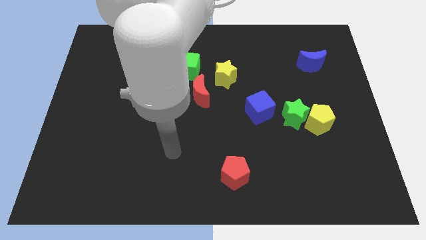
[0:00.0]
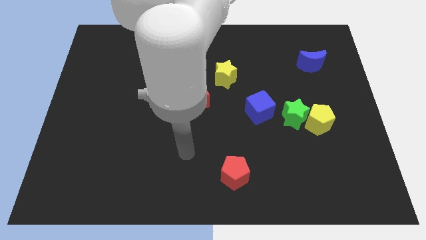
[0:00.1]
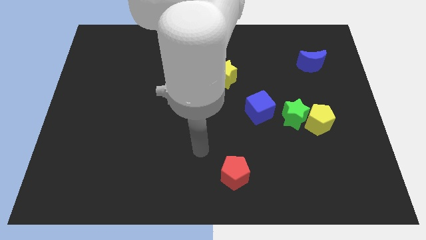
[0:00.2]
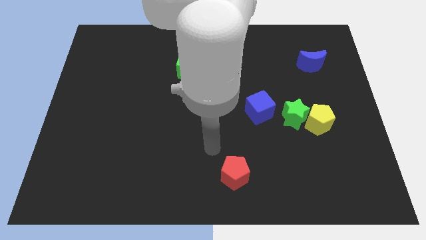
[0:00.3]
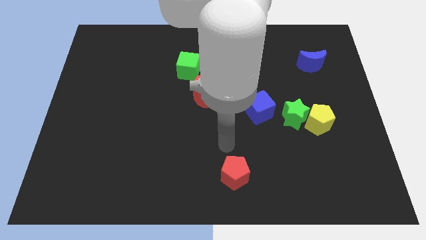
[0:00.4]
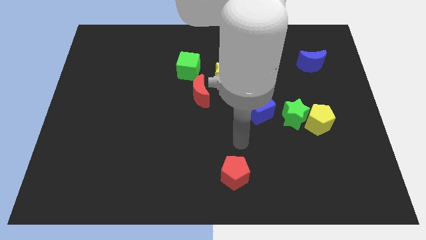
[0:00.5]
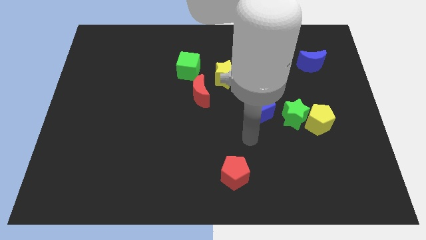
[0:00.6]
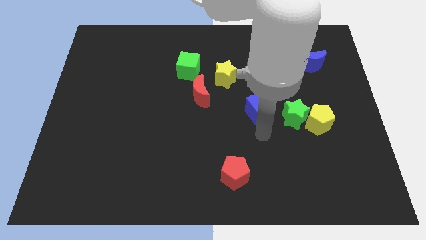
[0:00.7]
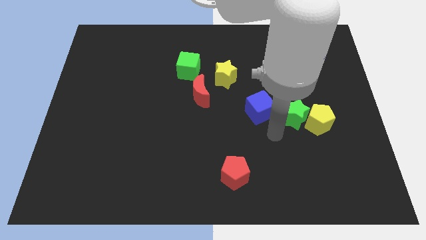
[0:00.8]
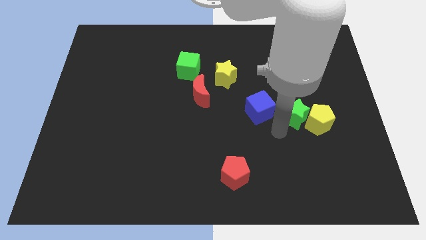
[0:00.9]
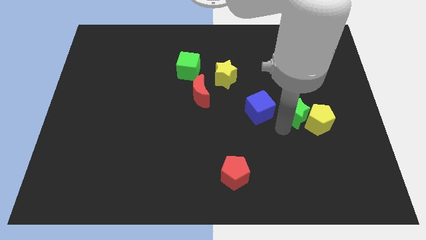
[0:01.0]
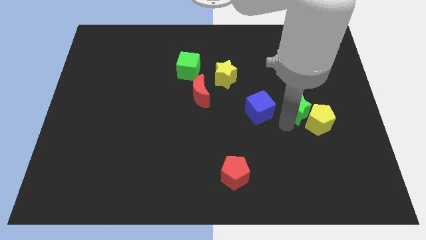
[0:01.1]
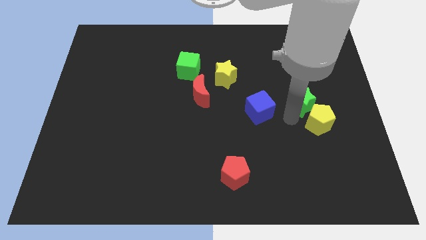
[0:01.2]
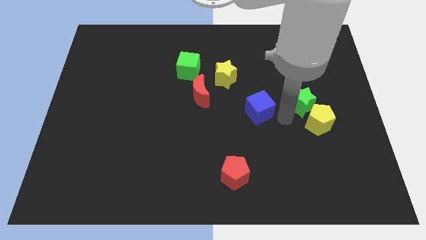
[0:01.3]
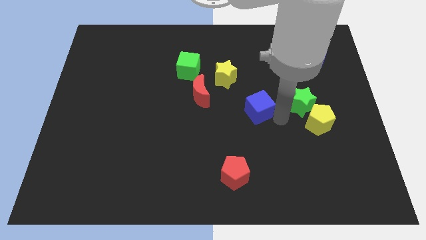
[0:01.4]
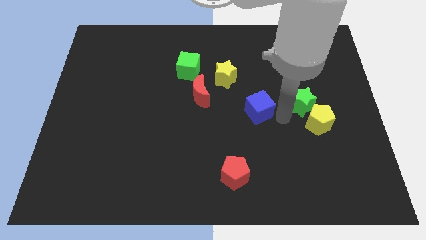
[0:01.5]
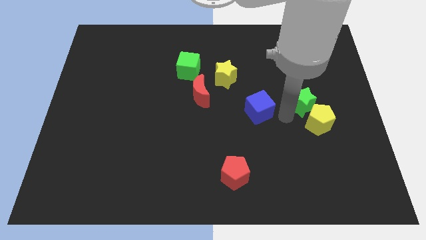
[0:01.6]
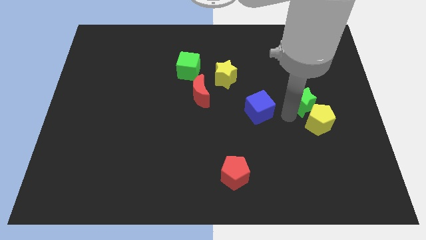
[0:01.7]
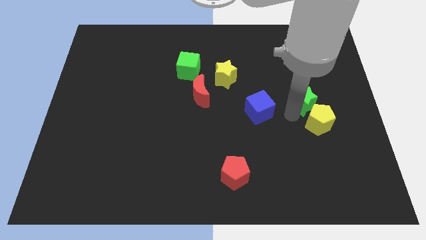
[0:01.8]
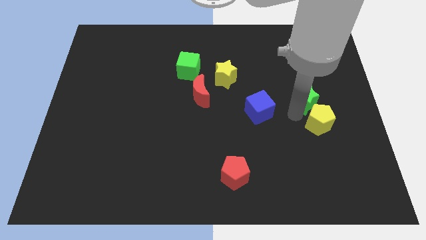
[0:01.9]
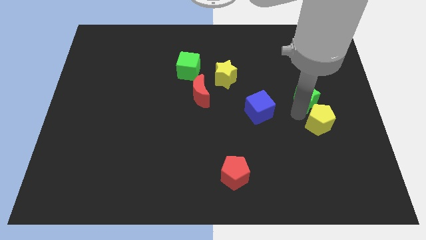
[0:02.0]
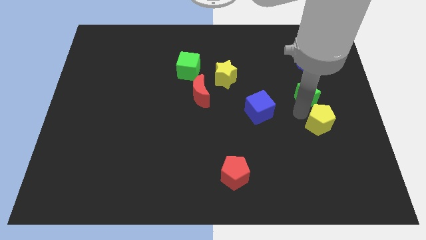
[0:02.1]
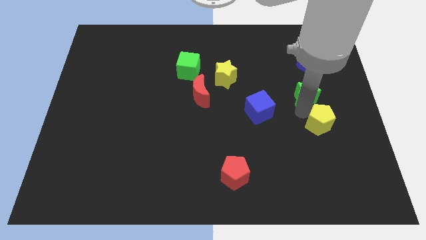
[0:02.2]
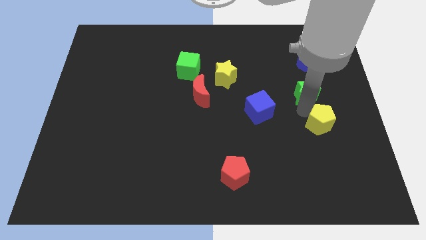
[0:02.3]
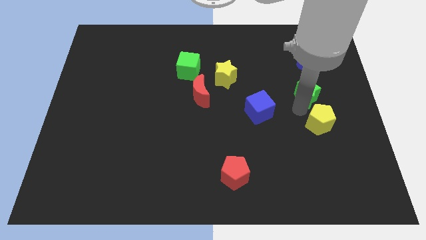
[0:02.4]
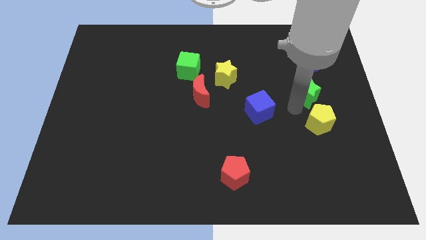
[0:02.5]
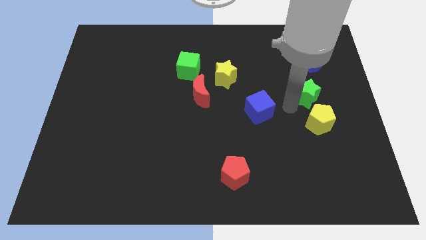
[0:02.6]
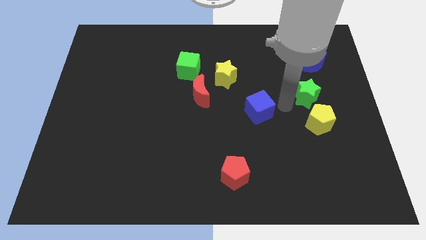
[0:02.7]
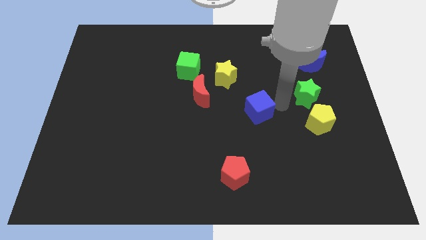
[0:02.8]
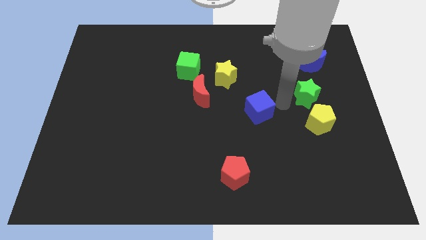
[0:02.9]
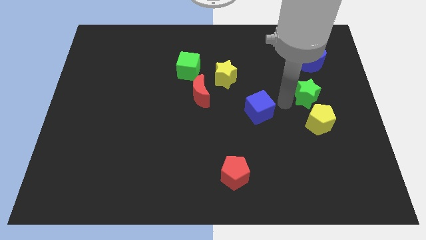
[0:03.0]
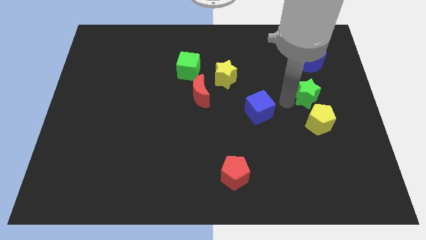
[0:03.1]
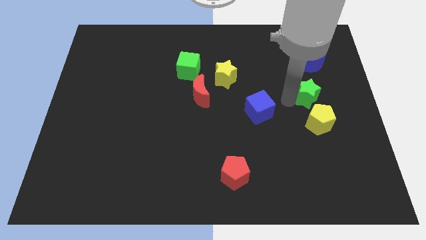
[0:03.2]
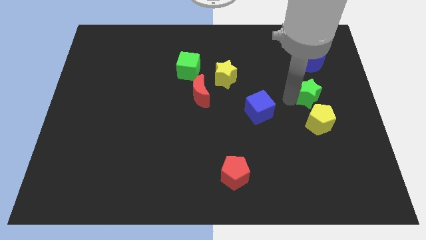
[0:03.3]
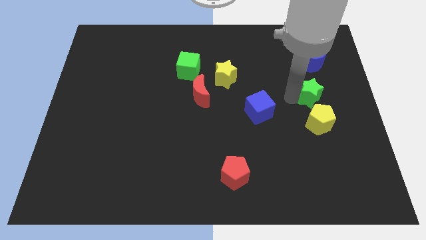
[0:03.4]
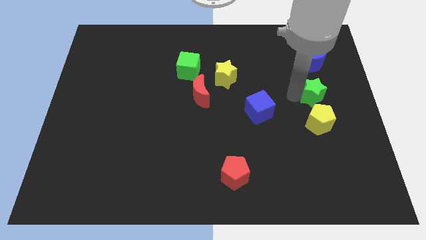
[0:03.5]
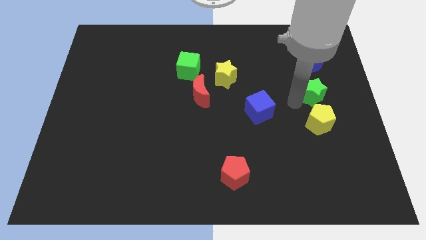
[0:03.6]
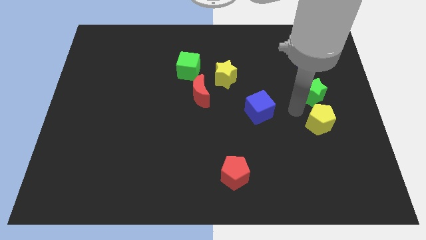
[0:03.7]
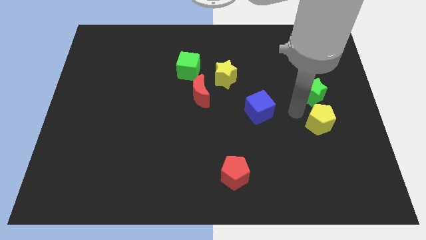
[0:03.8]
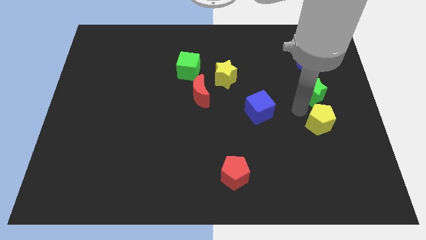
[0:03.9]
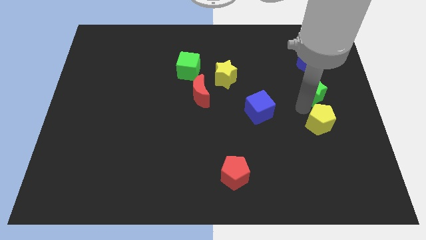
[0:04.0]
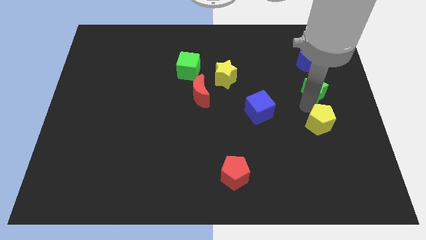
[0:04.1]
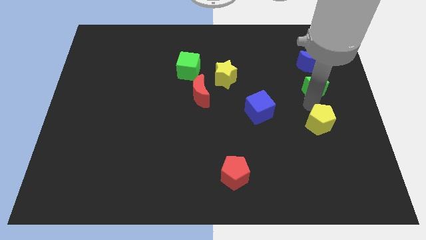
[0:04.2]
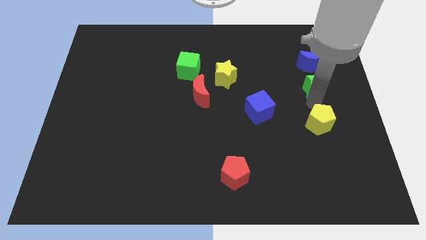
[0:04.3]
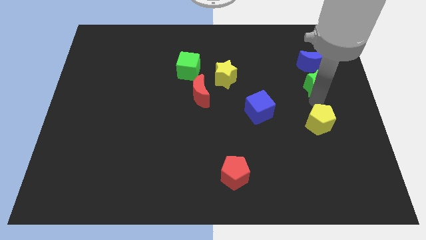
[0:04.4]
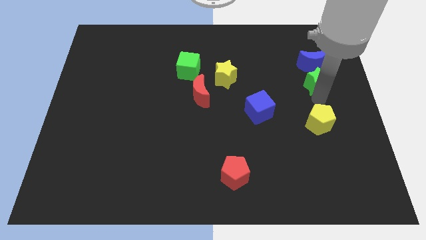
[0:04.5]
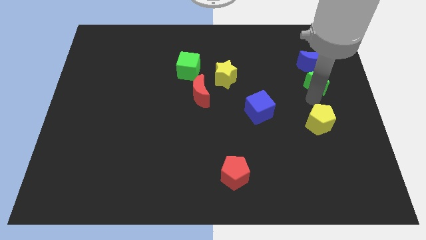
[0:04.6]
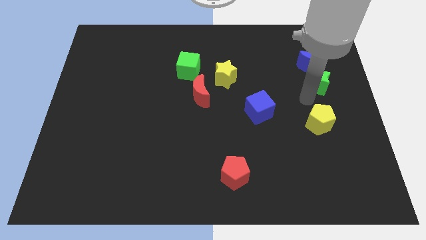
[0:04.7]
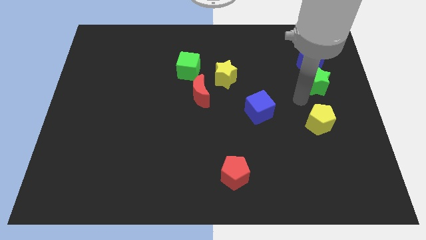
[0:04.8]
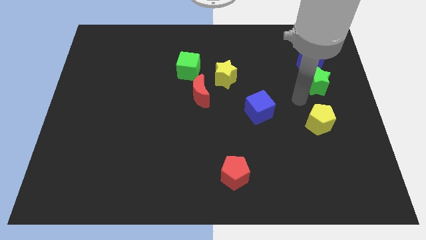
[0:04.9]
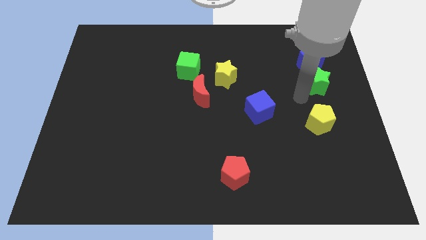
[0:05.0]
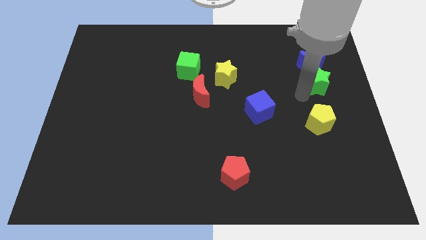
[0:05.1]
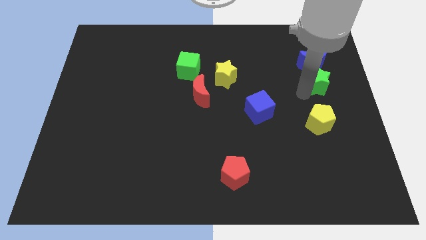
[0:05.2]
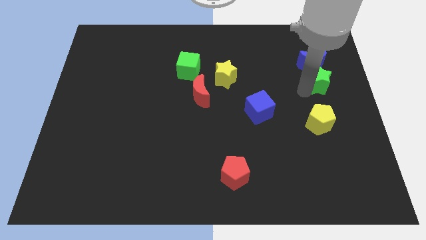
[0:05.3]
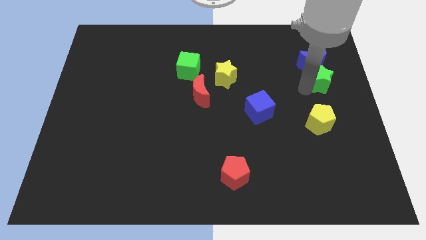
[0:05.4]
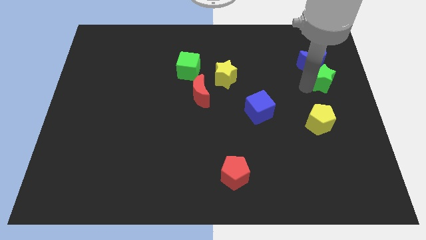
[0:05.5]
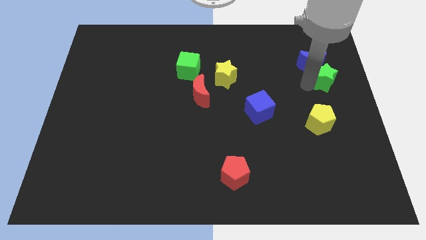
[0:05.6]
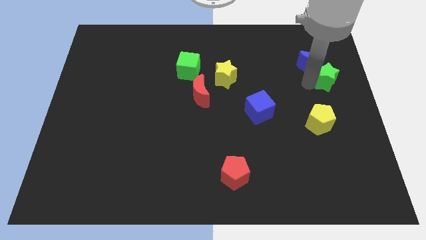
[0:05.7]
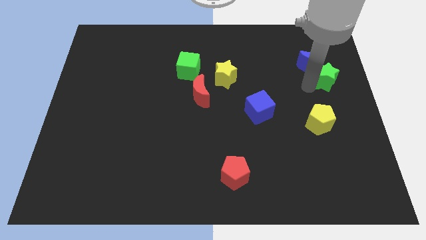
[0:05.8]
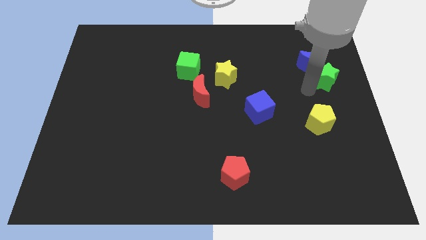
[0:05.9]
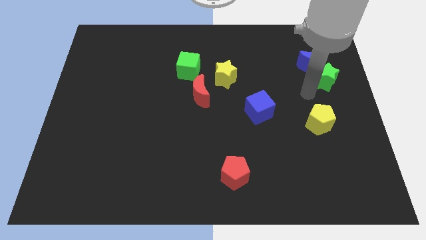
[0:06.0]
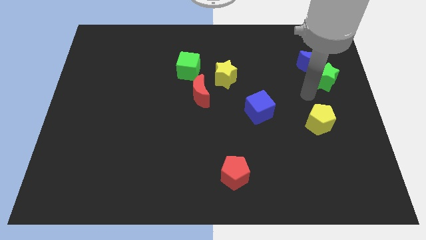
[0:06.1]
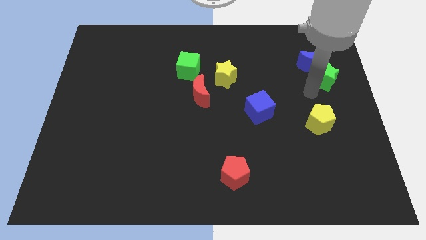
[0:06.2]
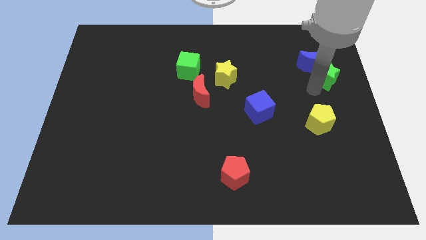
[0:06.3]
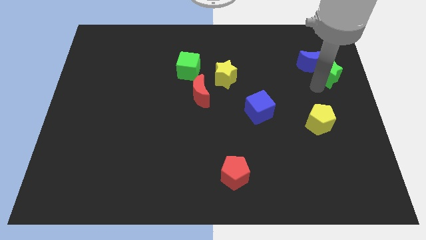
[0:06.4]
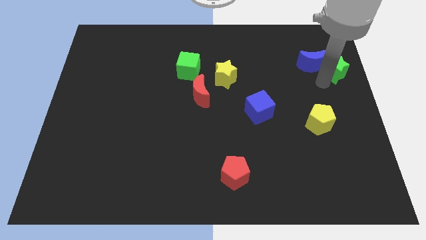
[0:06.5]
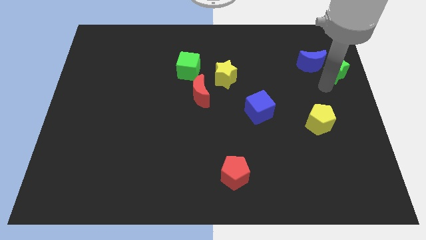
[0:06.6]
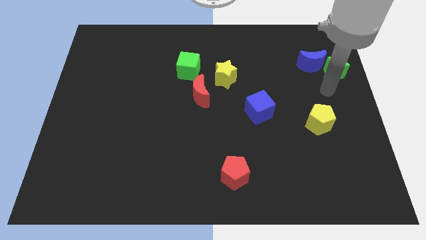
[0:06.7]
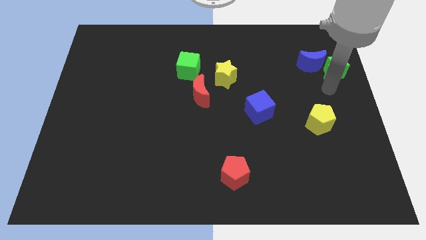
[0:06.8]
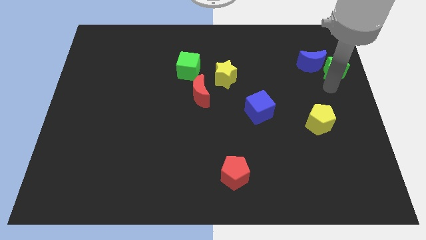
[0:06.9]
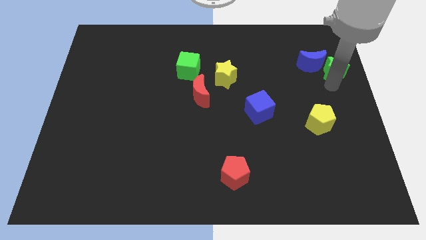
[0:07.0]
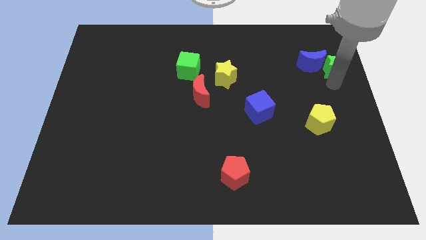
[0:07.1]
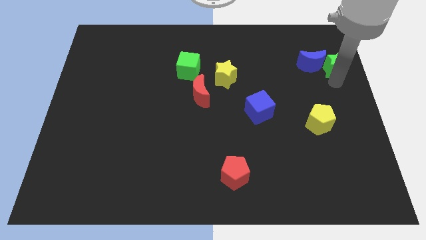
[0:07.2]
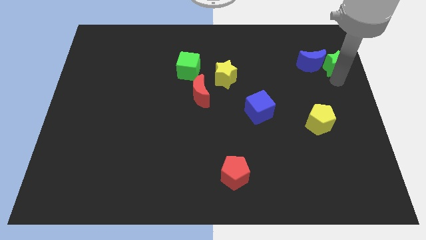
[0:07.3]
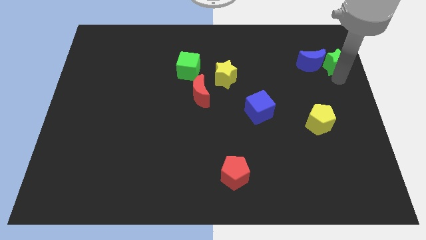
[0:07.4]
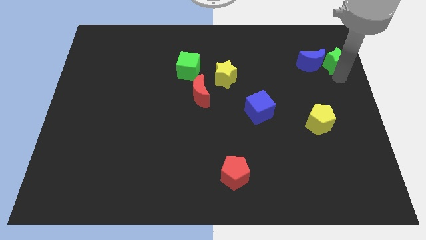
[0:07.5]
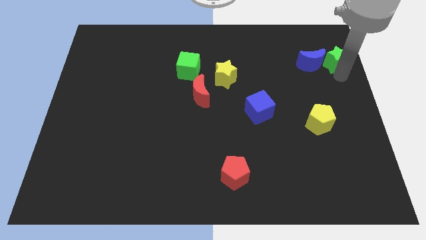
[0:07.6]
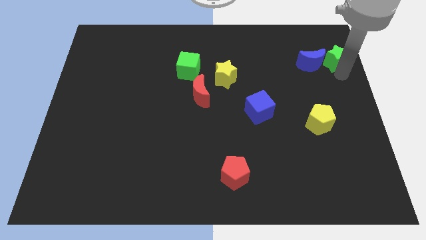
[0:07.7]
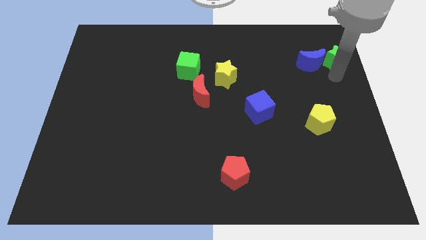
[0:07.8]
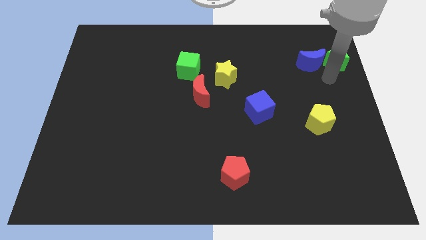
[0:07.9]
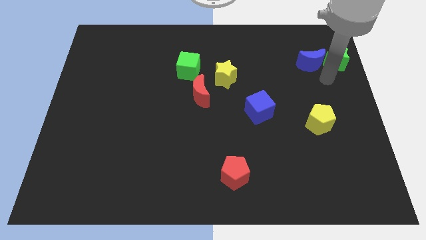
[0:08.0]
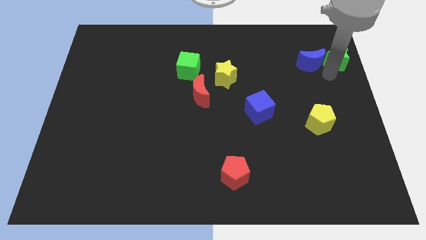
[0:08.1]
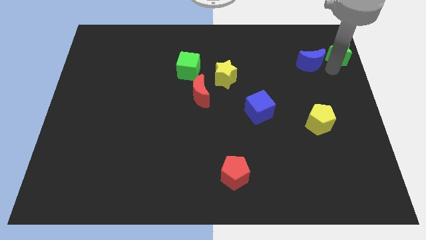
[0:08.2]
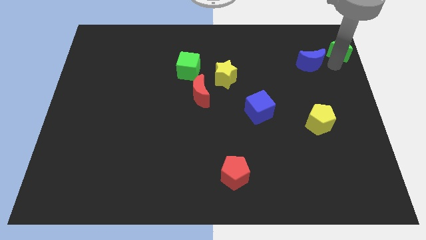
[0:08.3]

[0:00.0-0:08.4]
slide the green star to the top right corner
